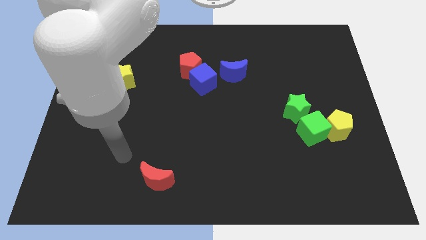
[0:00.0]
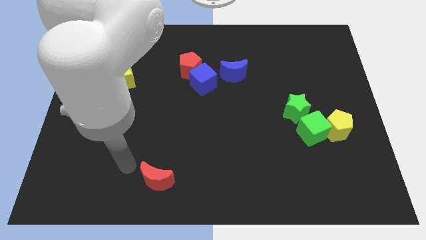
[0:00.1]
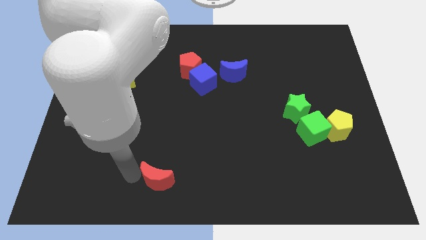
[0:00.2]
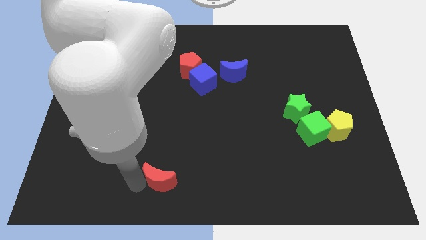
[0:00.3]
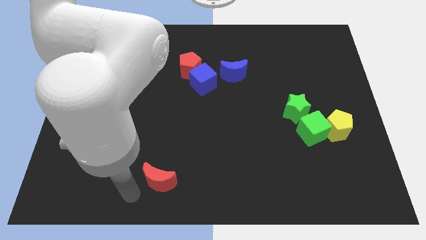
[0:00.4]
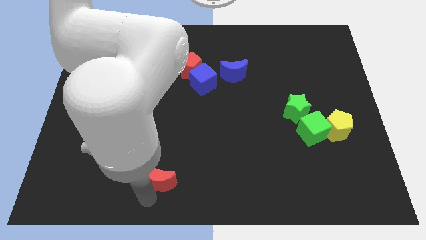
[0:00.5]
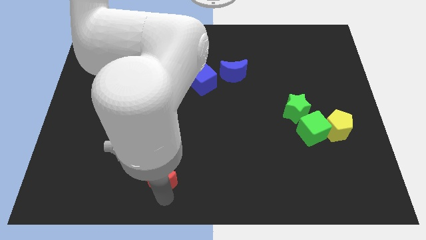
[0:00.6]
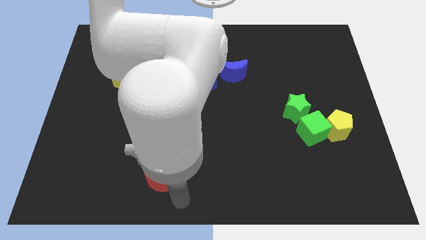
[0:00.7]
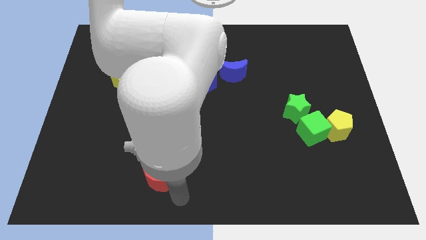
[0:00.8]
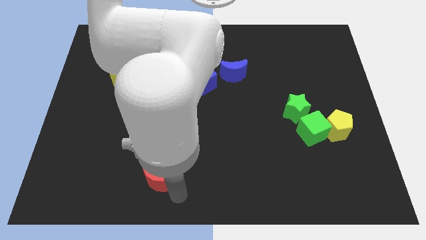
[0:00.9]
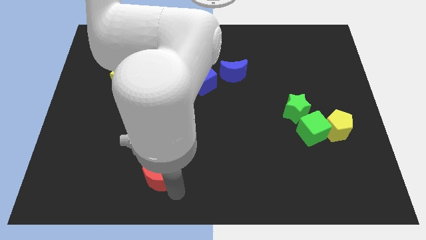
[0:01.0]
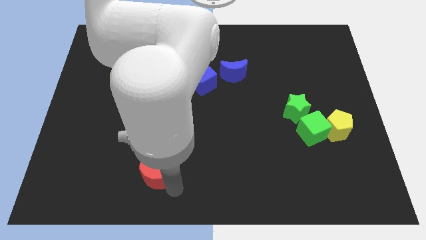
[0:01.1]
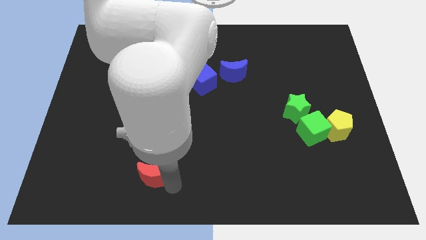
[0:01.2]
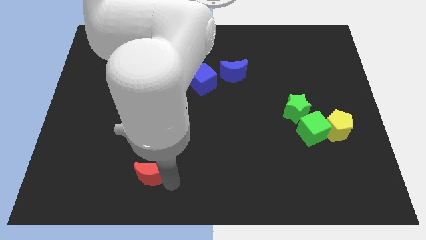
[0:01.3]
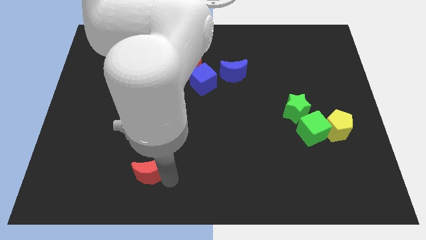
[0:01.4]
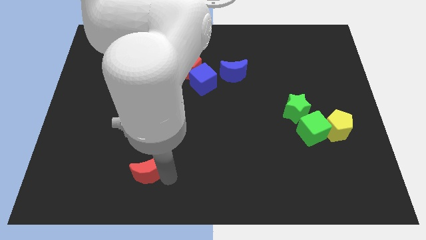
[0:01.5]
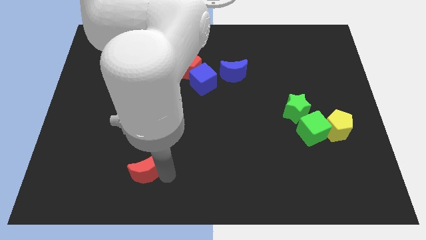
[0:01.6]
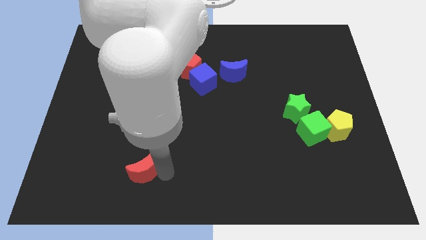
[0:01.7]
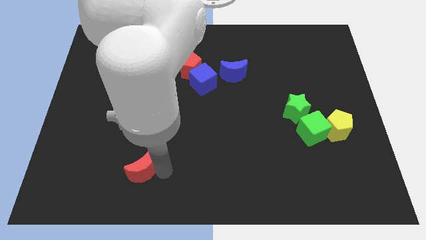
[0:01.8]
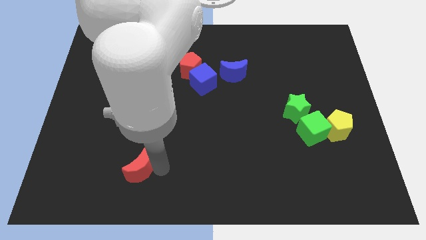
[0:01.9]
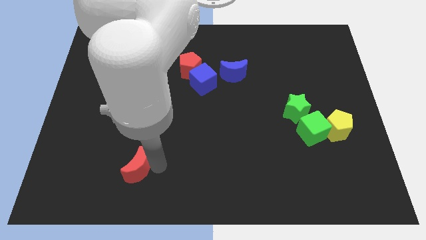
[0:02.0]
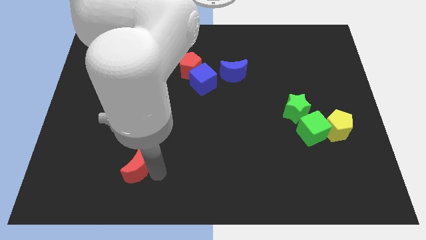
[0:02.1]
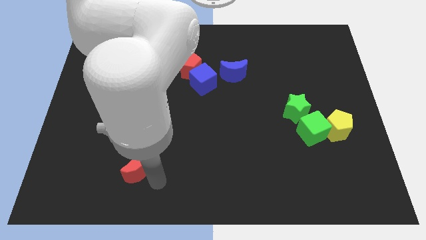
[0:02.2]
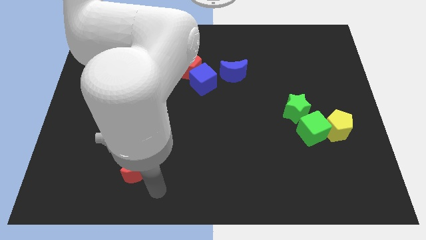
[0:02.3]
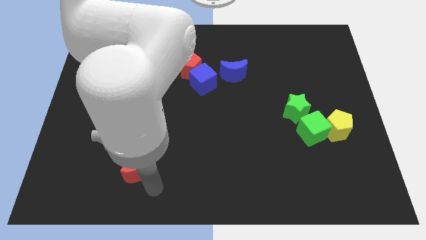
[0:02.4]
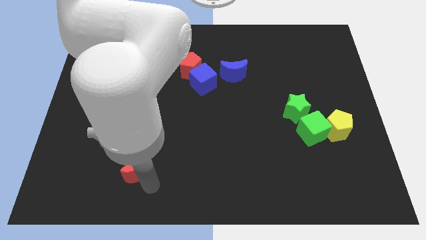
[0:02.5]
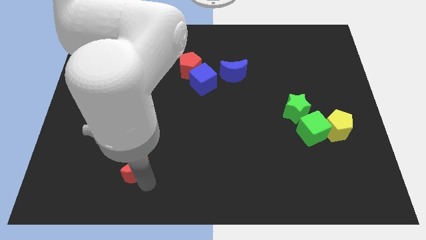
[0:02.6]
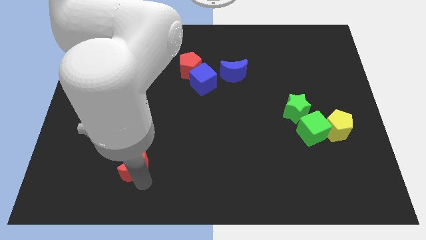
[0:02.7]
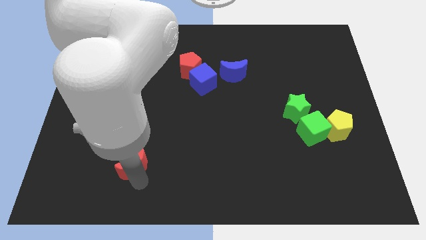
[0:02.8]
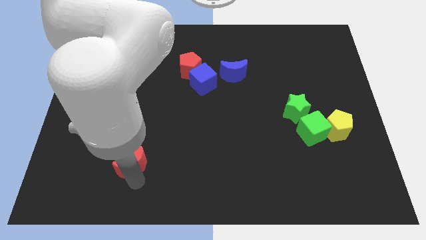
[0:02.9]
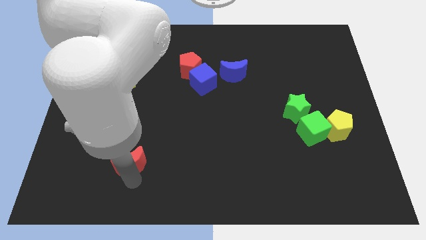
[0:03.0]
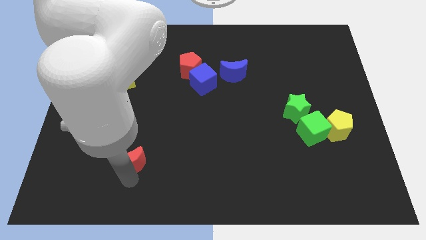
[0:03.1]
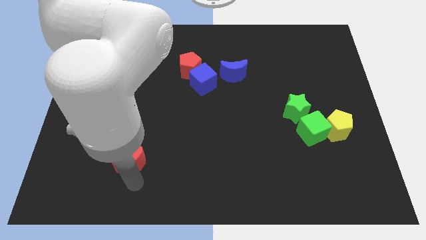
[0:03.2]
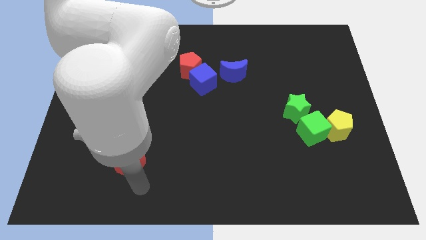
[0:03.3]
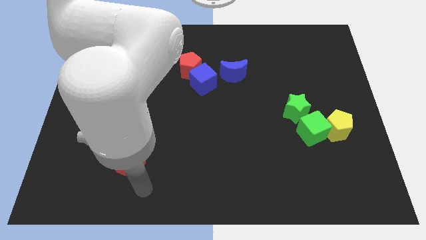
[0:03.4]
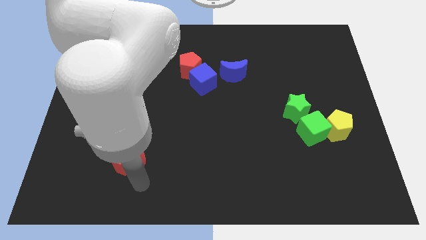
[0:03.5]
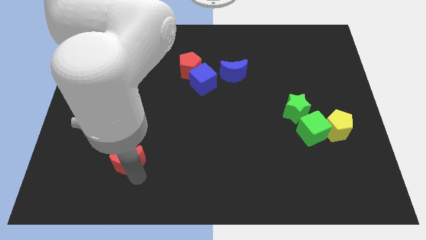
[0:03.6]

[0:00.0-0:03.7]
push the red moon somewhat up and to the left

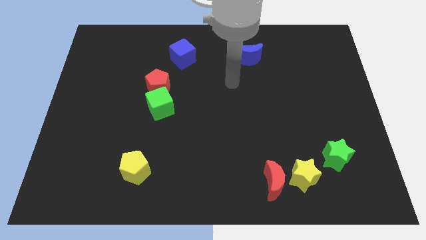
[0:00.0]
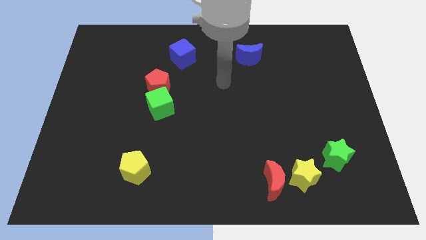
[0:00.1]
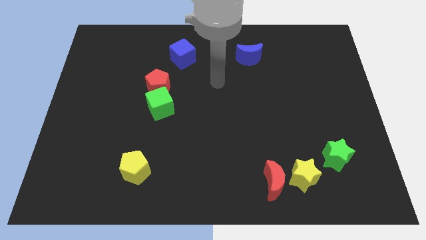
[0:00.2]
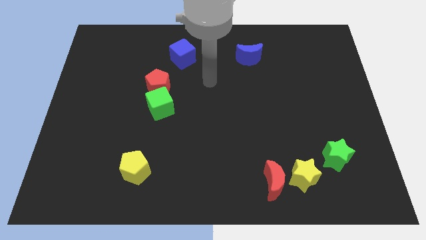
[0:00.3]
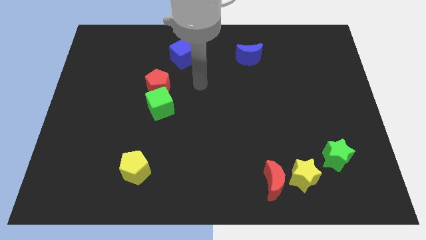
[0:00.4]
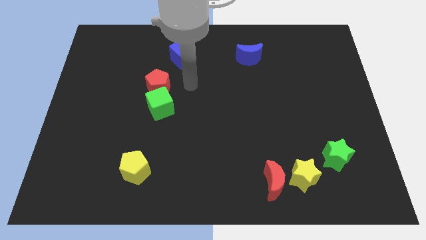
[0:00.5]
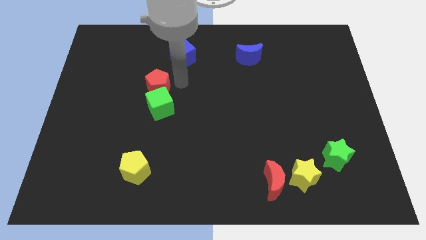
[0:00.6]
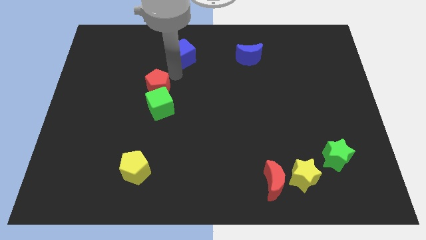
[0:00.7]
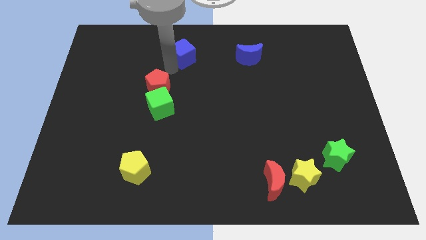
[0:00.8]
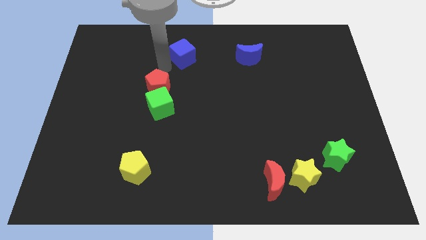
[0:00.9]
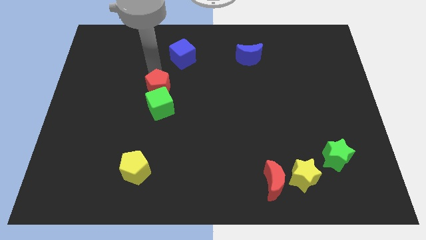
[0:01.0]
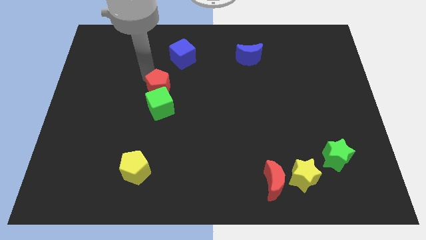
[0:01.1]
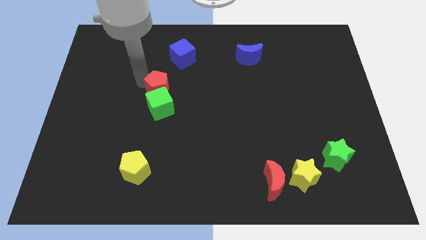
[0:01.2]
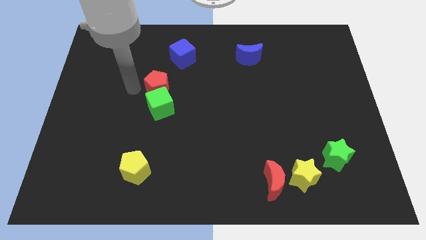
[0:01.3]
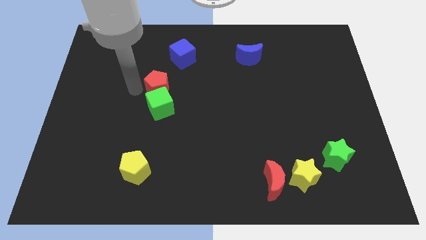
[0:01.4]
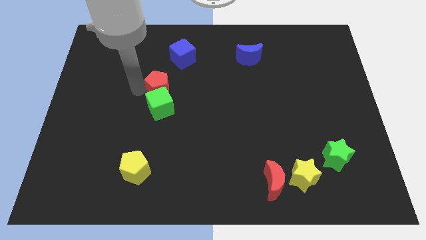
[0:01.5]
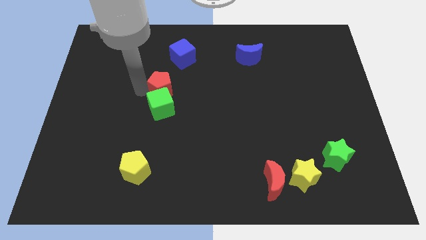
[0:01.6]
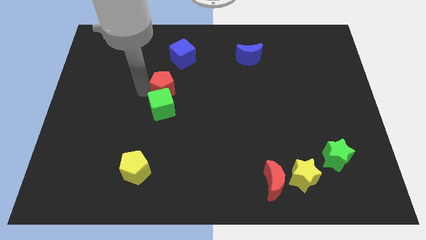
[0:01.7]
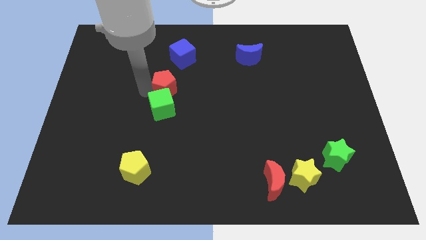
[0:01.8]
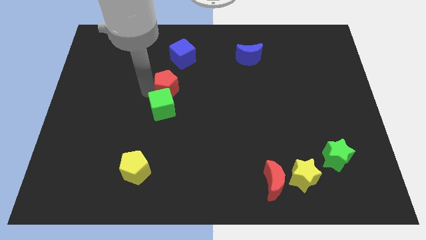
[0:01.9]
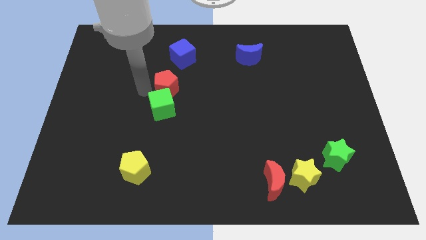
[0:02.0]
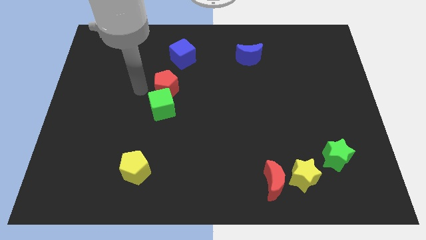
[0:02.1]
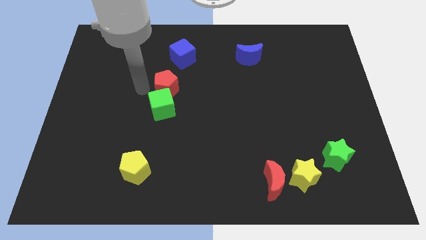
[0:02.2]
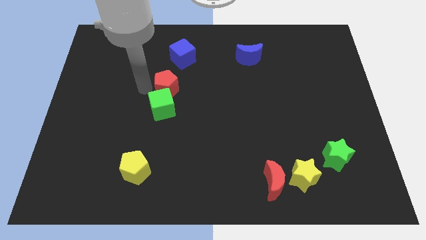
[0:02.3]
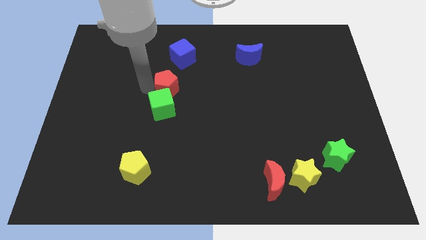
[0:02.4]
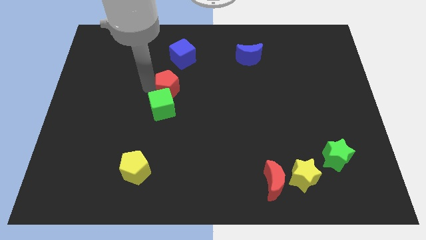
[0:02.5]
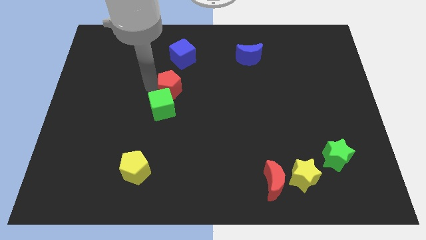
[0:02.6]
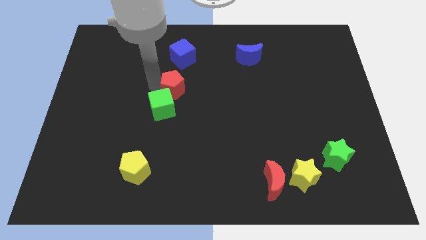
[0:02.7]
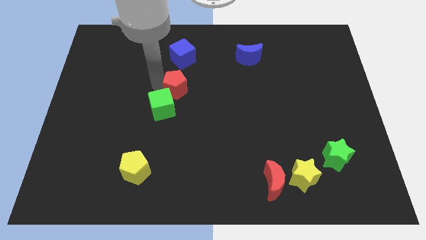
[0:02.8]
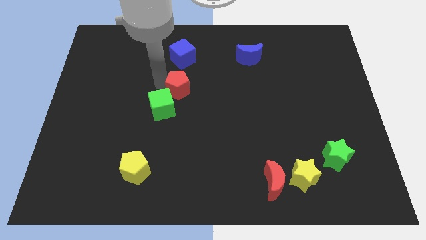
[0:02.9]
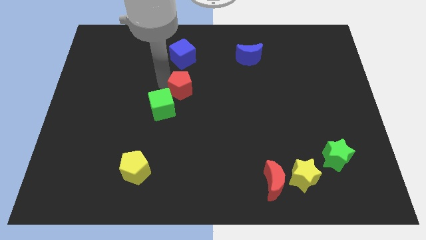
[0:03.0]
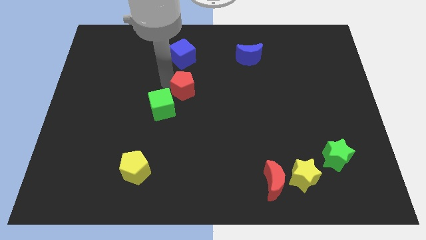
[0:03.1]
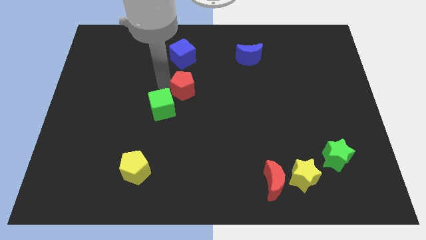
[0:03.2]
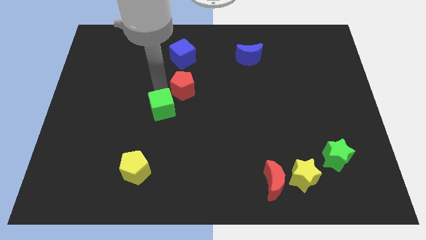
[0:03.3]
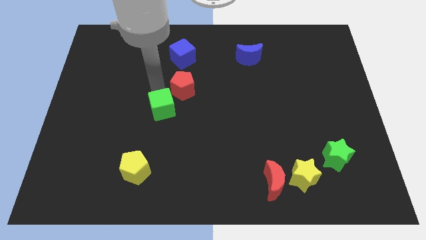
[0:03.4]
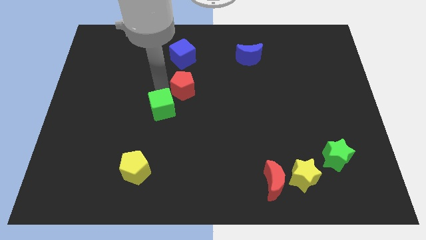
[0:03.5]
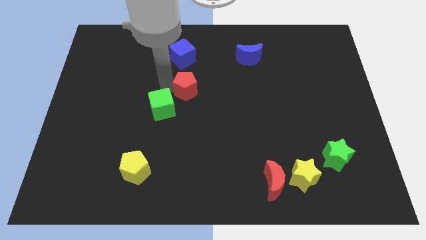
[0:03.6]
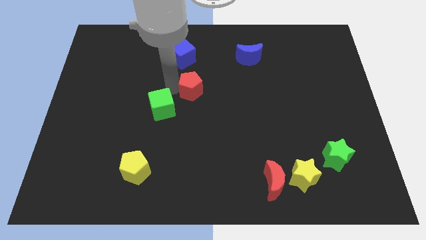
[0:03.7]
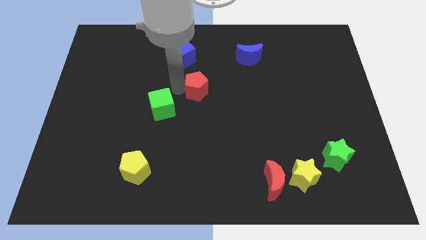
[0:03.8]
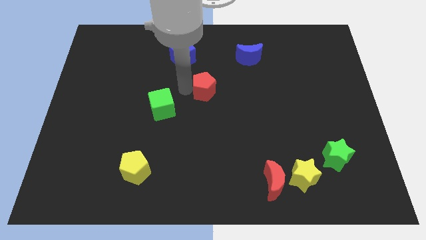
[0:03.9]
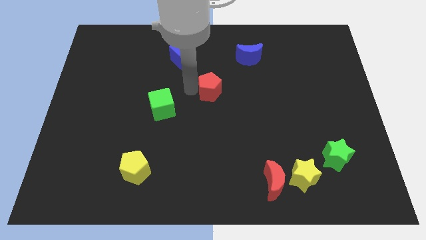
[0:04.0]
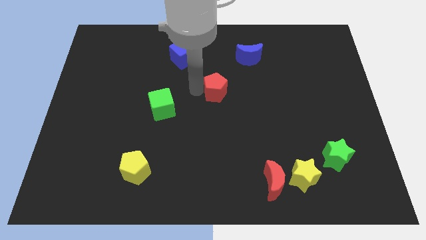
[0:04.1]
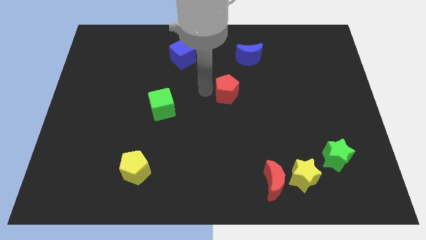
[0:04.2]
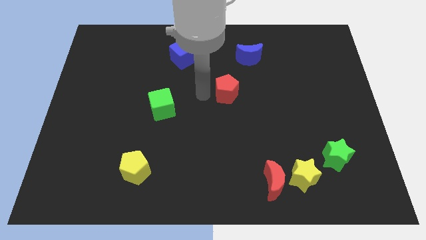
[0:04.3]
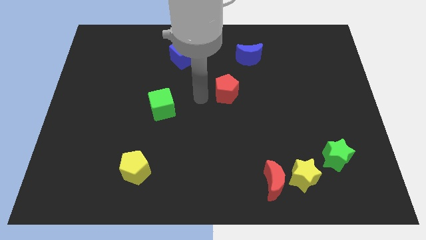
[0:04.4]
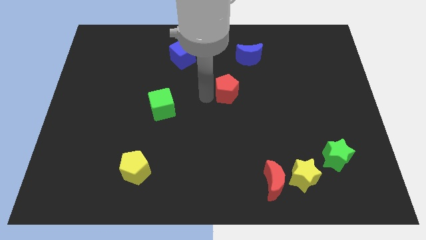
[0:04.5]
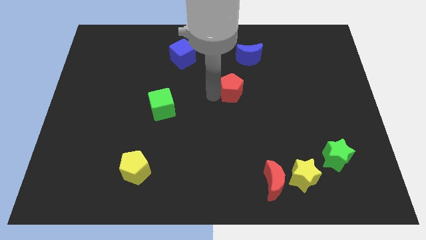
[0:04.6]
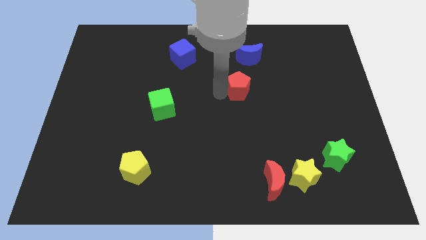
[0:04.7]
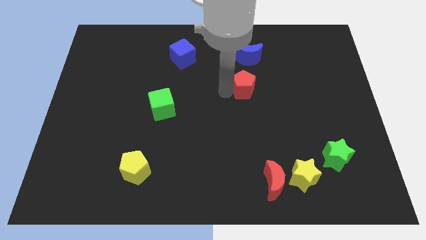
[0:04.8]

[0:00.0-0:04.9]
move the red pentagon right
